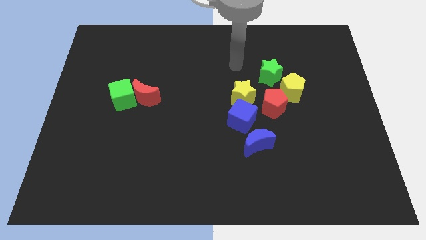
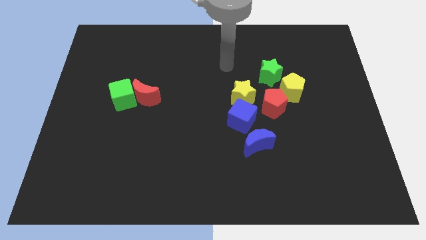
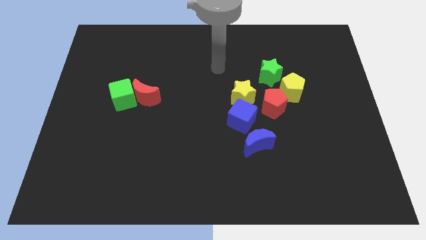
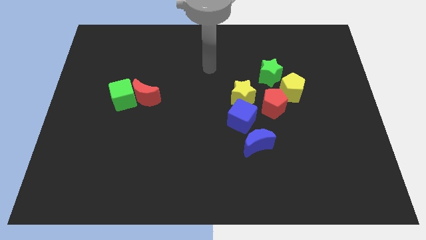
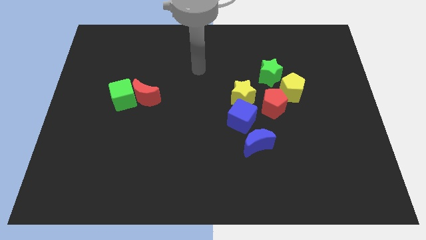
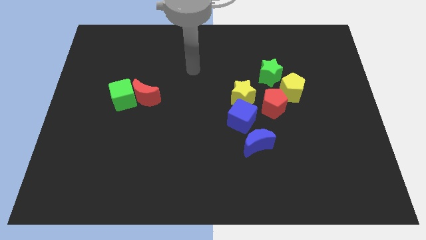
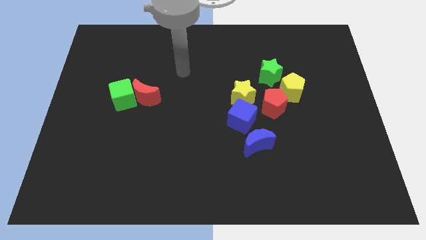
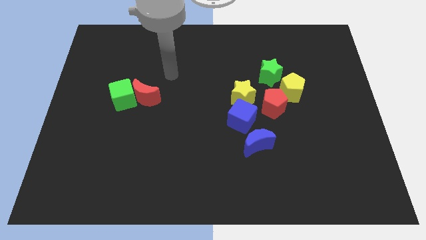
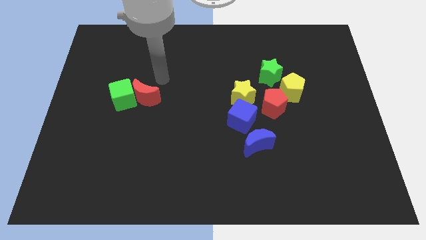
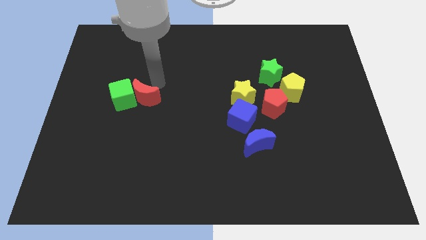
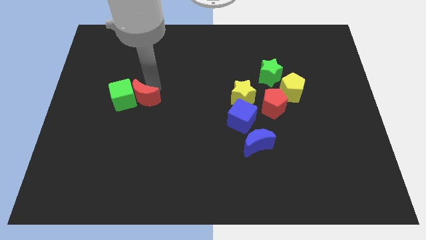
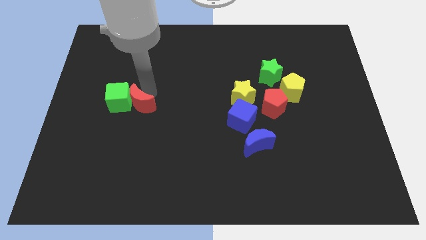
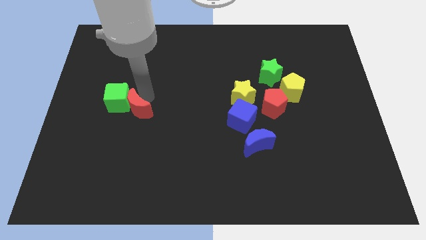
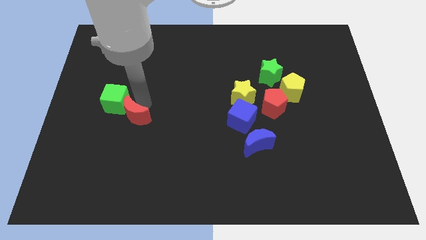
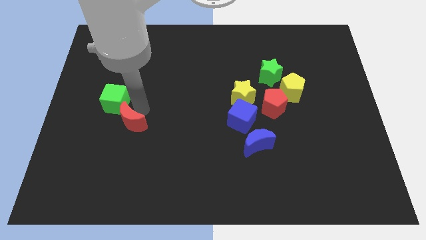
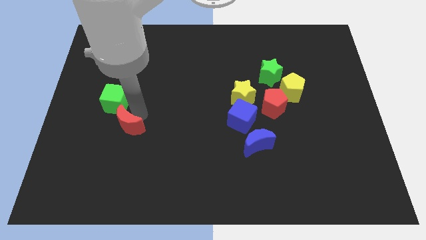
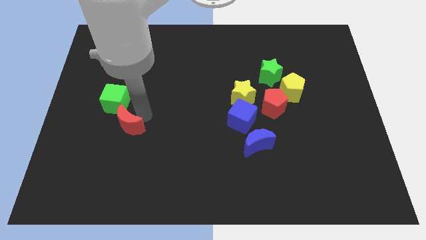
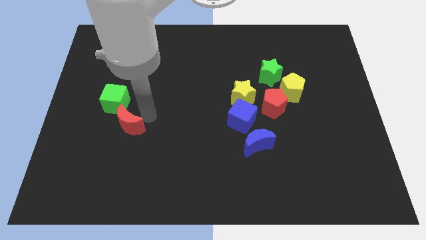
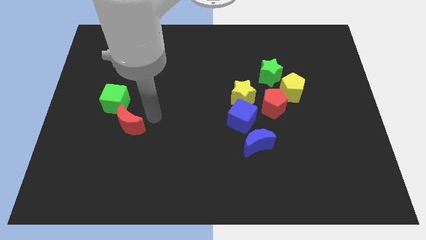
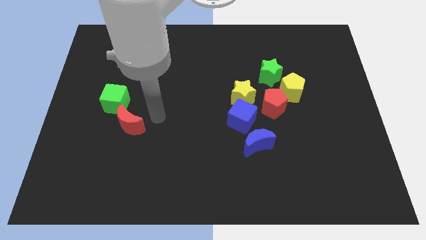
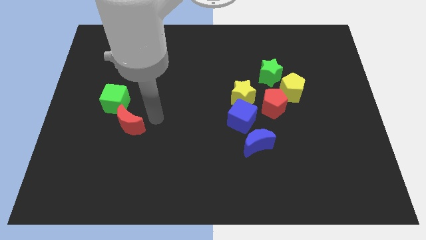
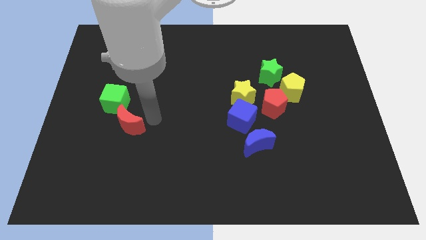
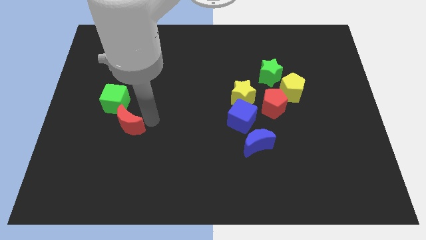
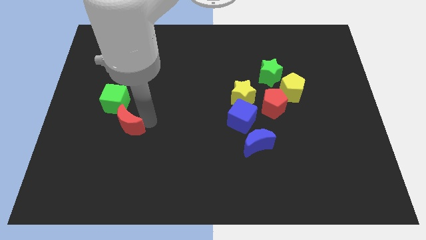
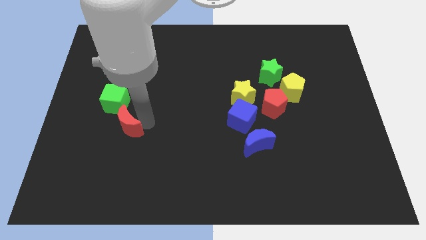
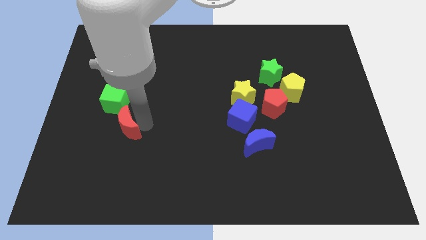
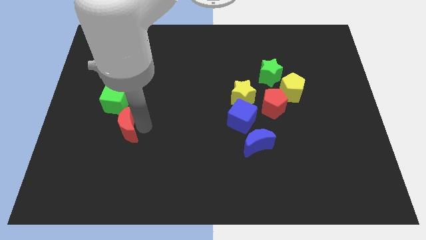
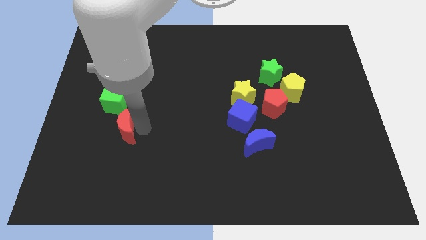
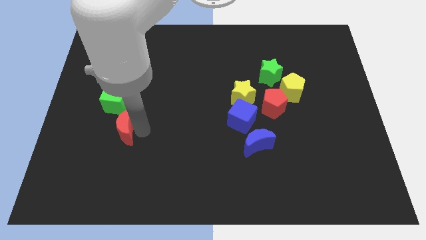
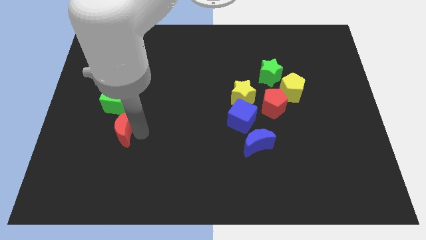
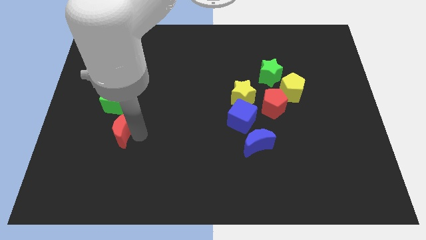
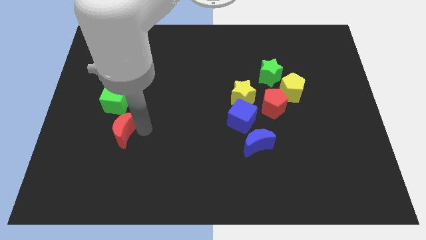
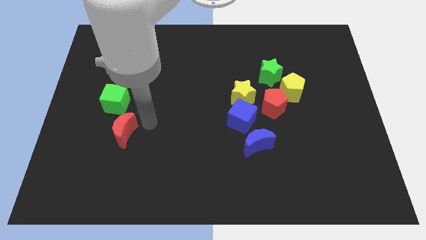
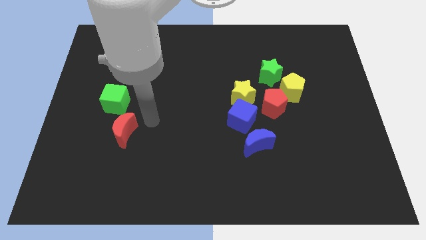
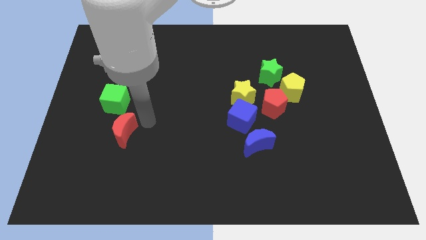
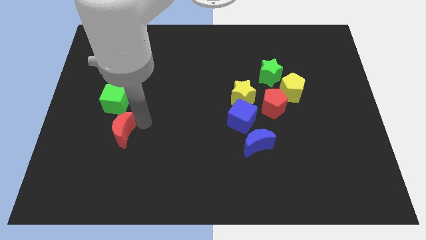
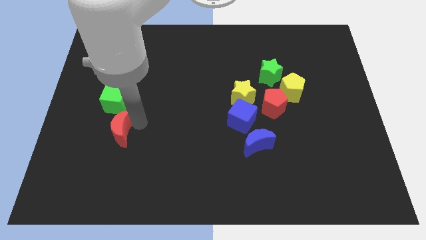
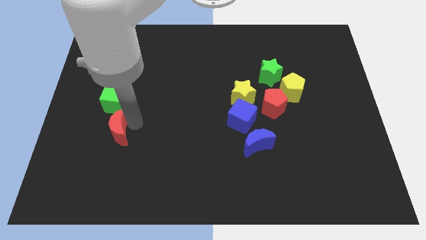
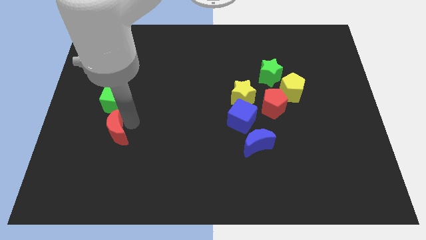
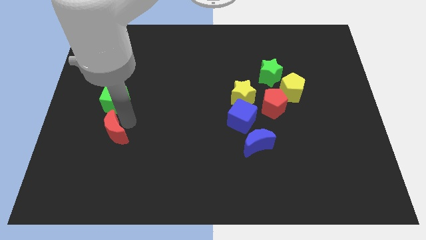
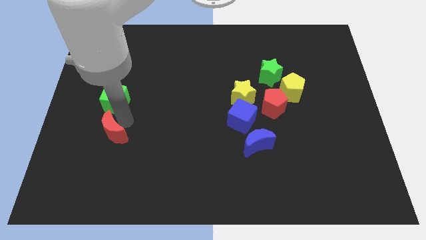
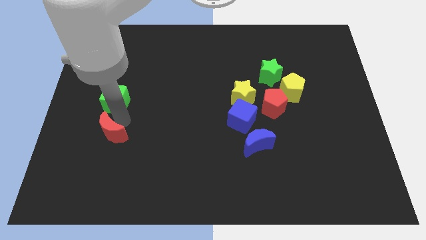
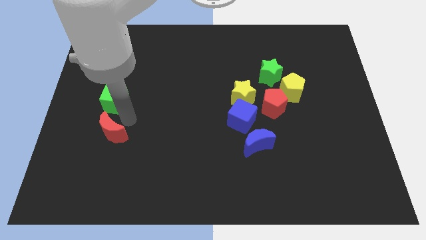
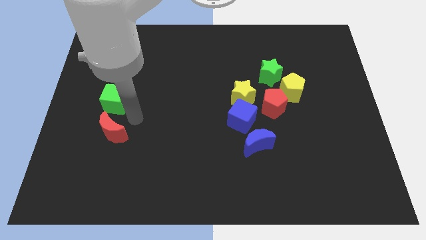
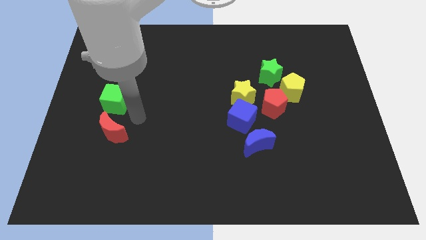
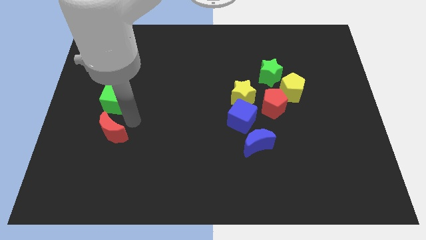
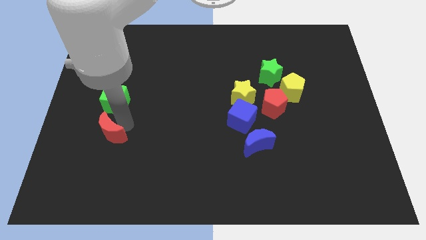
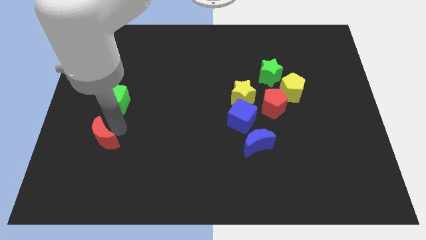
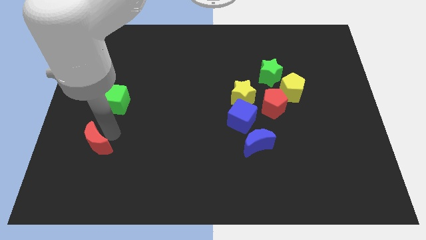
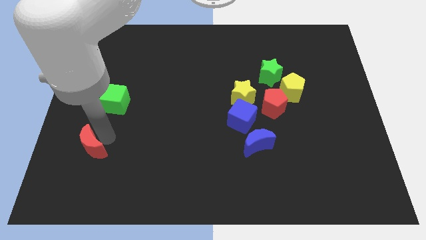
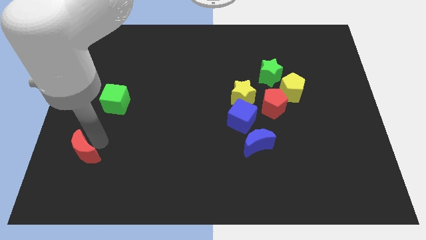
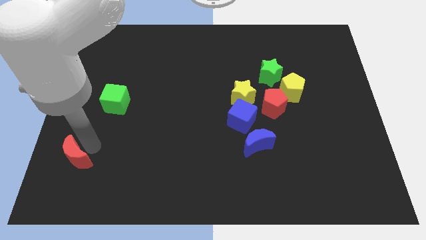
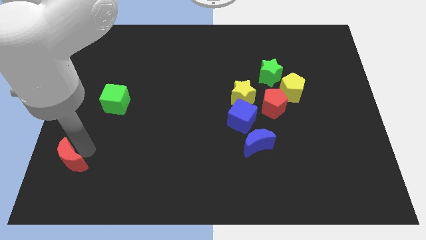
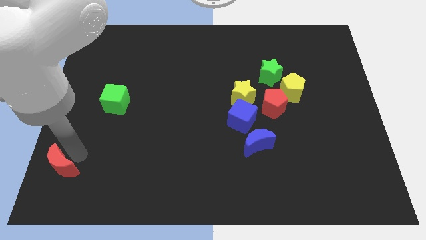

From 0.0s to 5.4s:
put the red moon to the bottom left corner

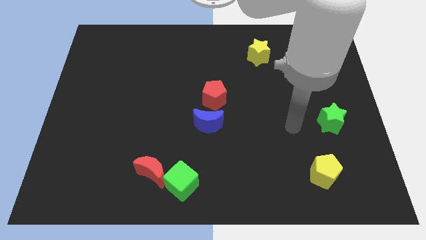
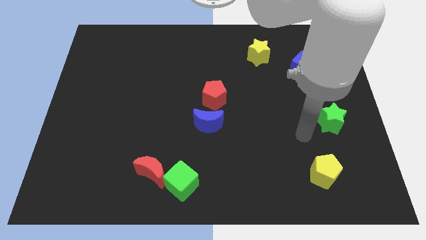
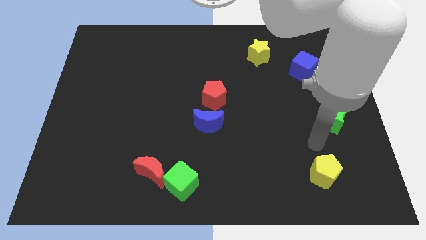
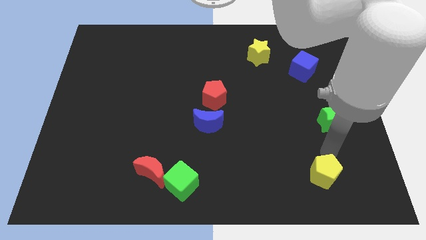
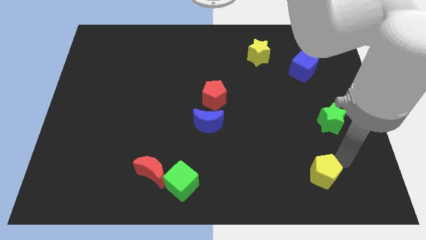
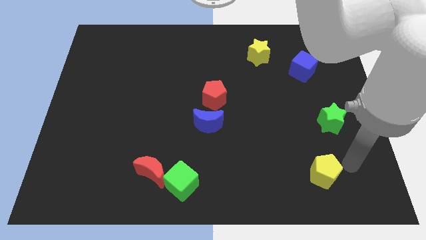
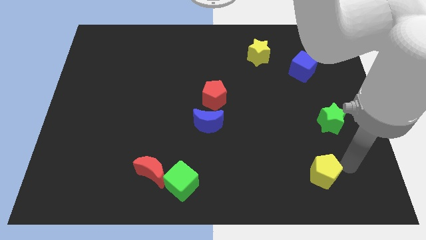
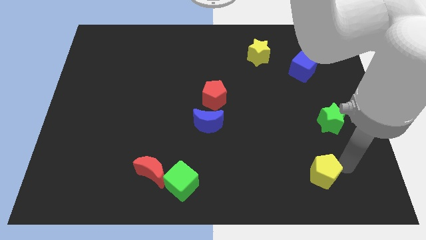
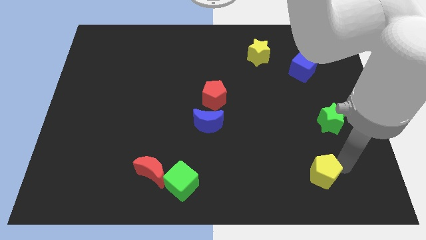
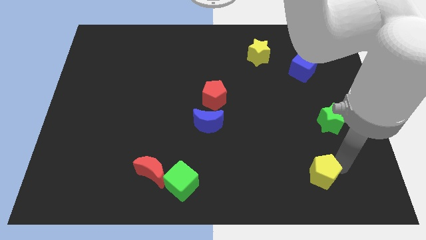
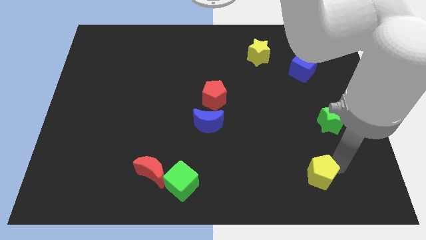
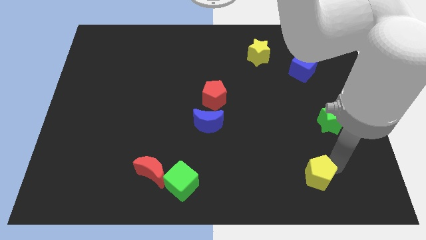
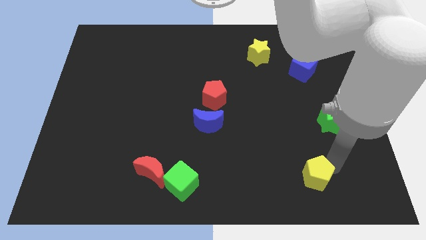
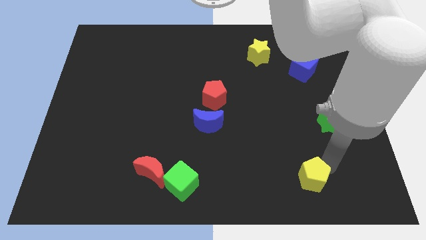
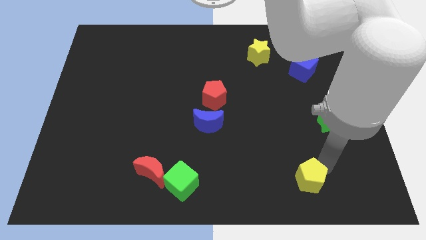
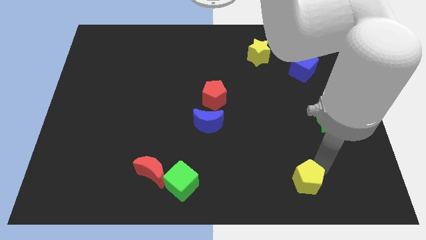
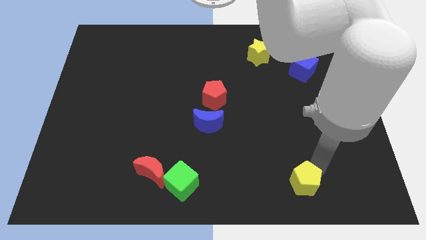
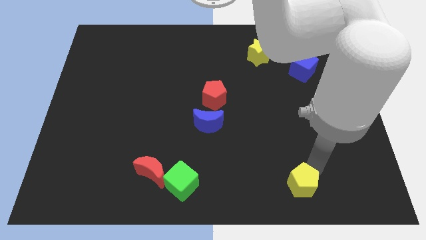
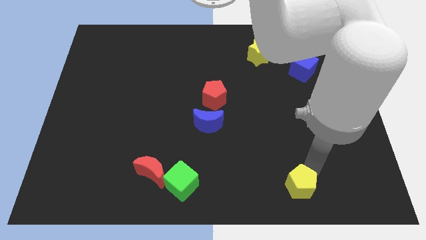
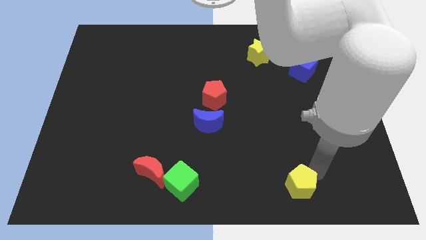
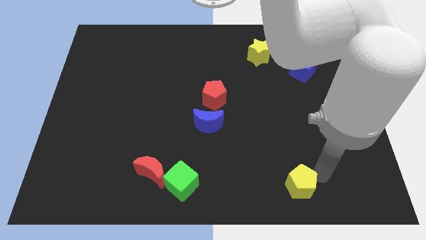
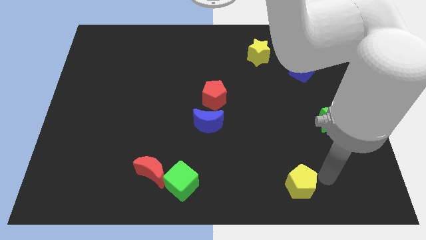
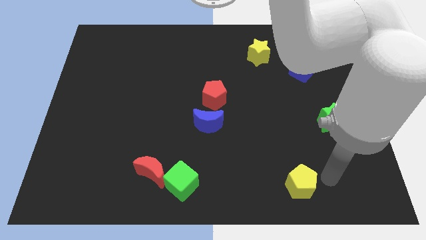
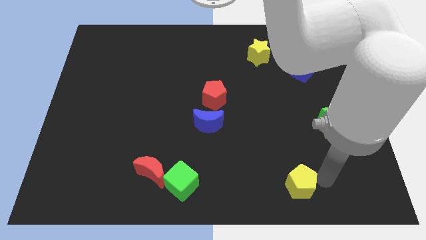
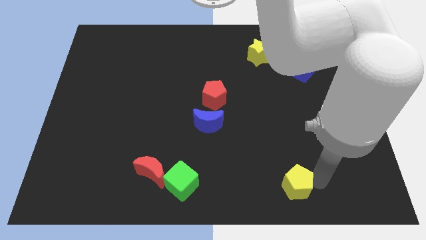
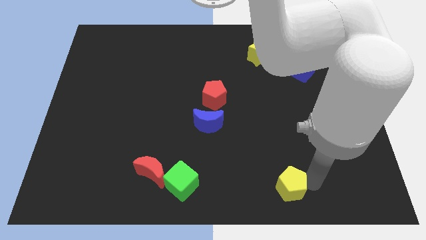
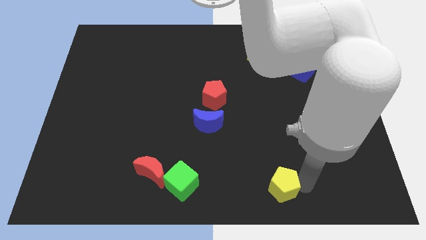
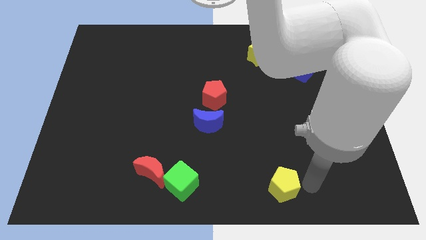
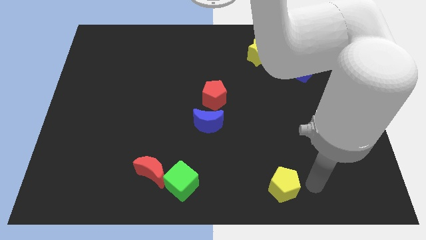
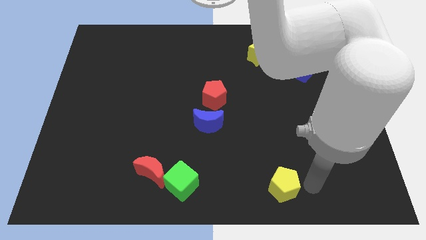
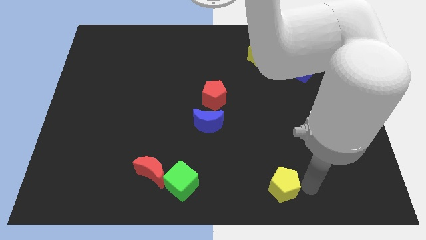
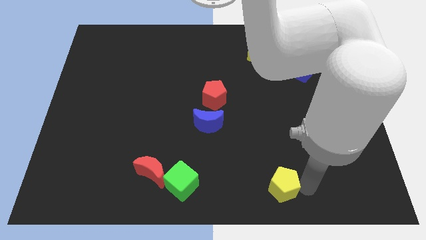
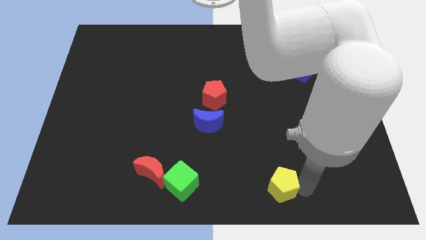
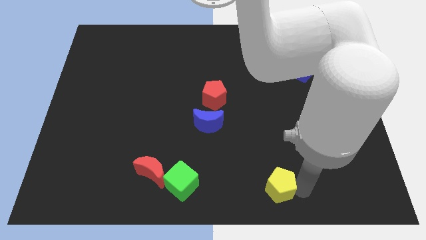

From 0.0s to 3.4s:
move the yellow pentagon to the bottom side
